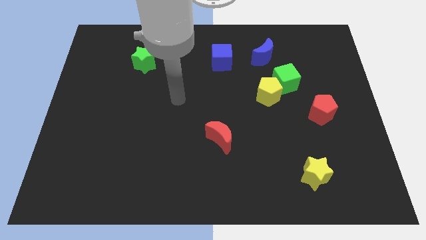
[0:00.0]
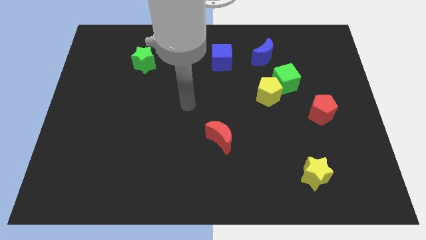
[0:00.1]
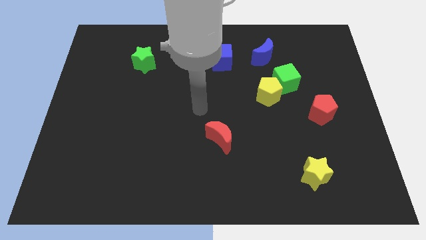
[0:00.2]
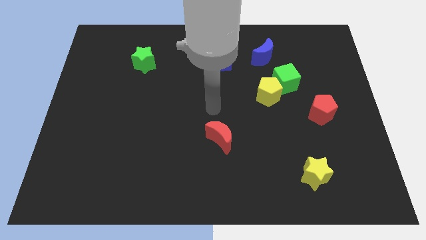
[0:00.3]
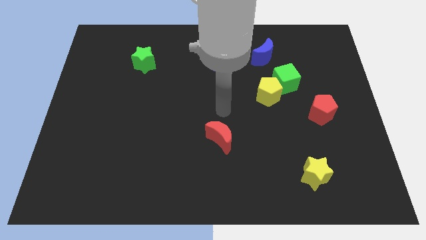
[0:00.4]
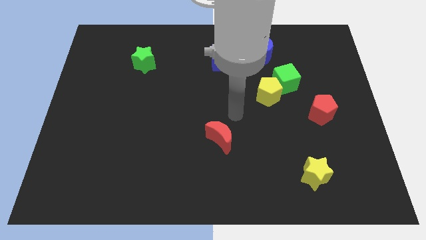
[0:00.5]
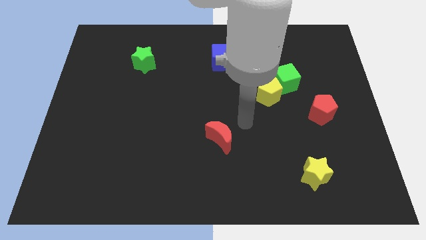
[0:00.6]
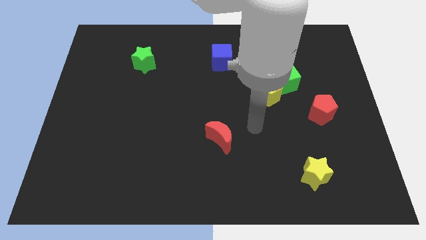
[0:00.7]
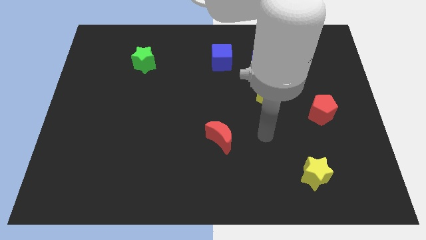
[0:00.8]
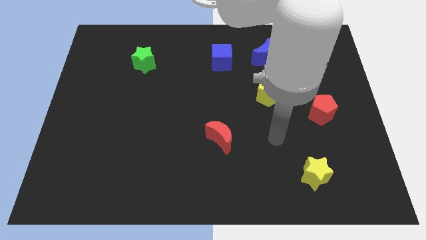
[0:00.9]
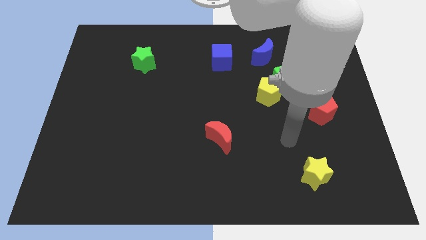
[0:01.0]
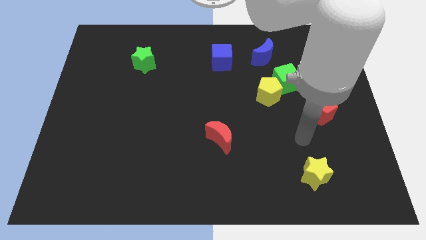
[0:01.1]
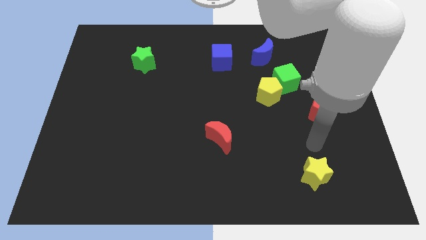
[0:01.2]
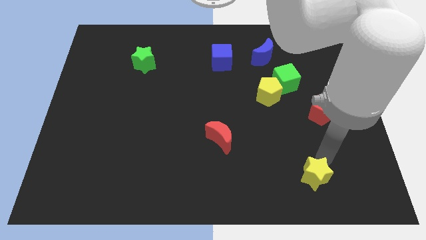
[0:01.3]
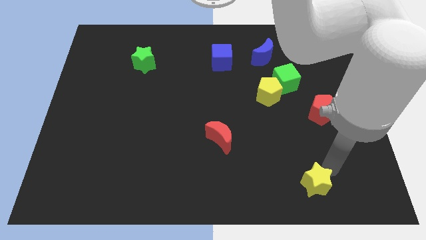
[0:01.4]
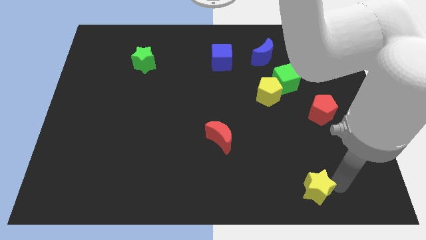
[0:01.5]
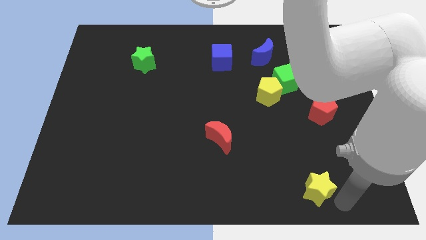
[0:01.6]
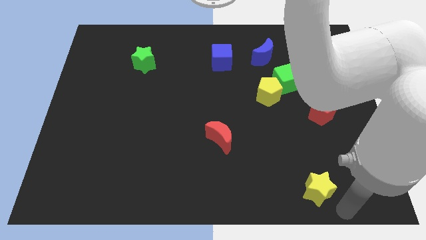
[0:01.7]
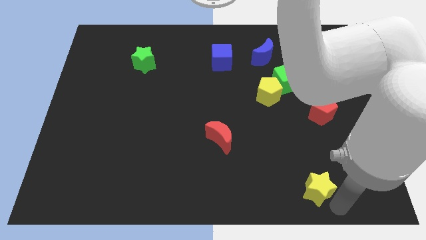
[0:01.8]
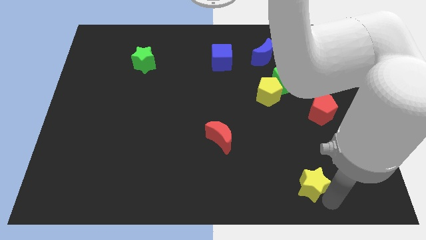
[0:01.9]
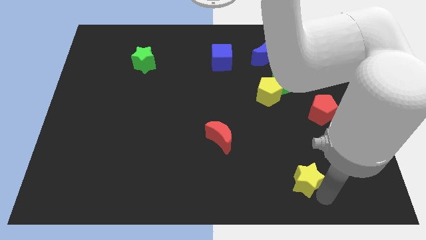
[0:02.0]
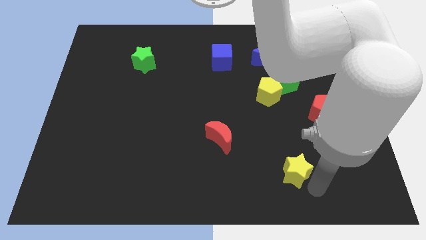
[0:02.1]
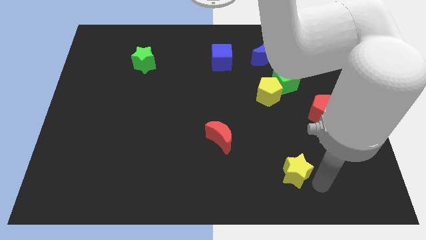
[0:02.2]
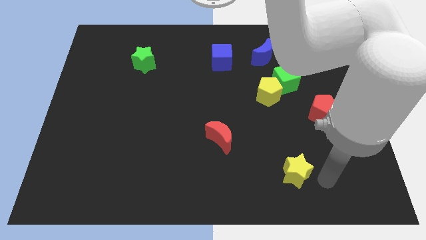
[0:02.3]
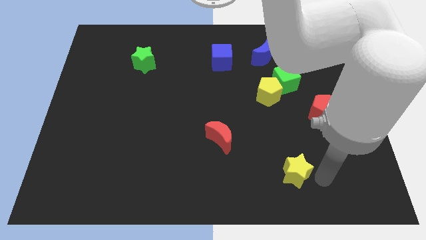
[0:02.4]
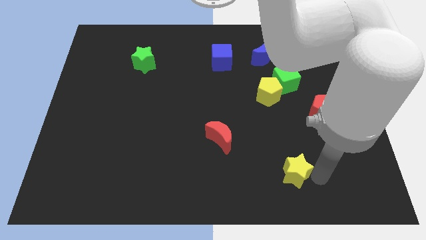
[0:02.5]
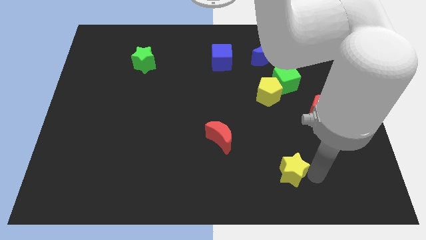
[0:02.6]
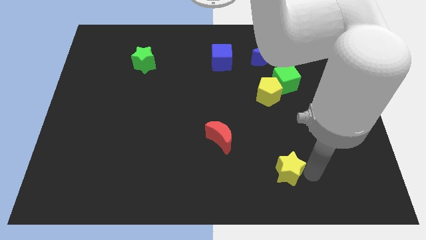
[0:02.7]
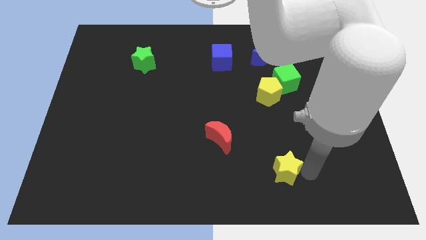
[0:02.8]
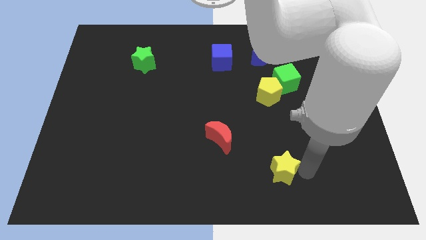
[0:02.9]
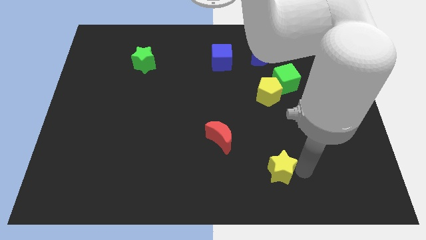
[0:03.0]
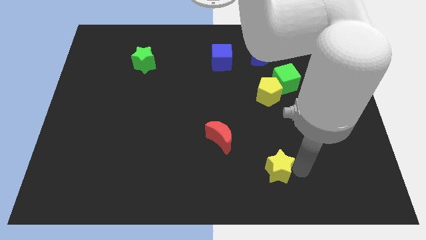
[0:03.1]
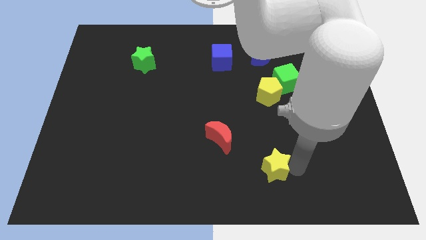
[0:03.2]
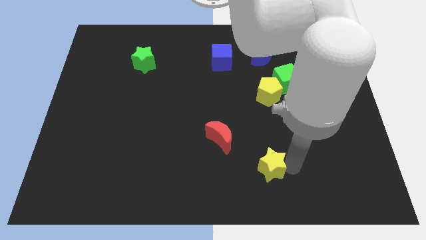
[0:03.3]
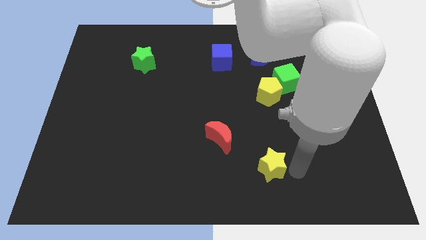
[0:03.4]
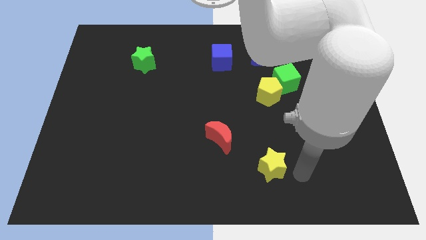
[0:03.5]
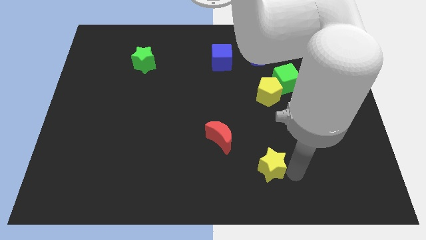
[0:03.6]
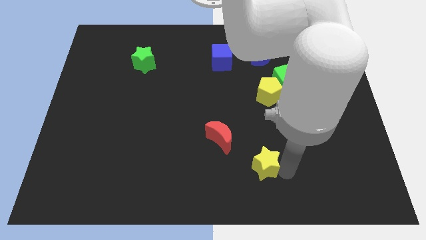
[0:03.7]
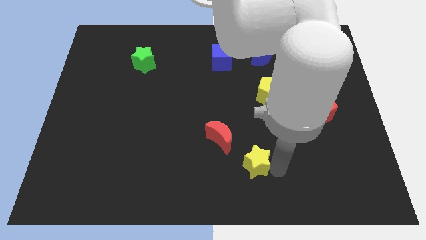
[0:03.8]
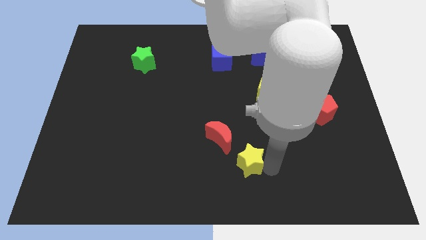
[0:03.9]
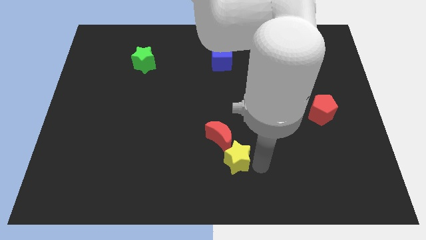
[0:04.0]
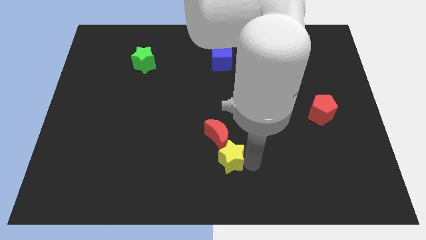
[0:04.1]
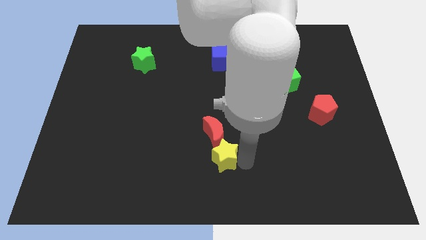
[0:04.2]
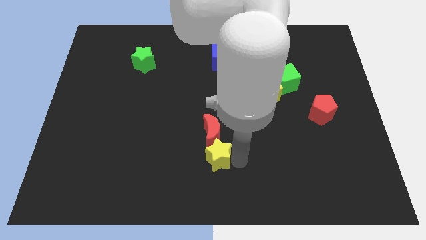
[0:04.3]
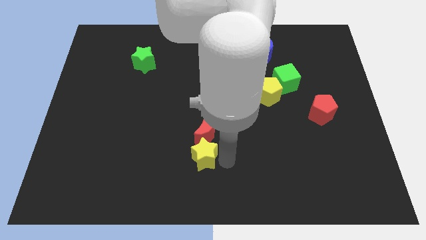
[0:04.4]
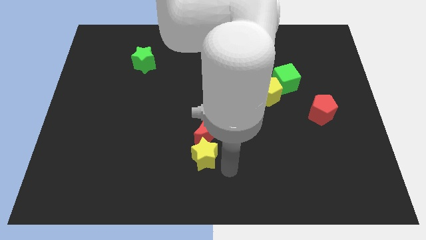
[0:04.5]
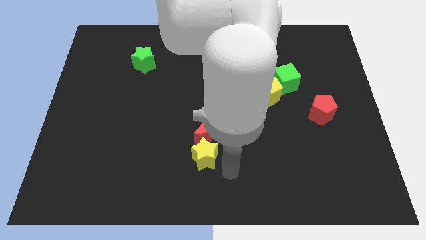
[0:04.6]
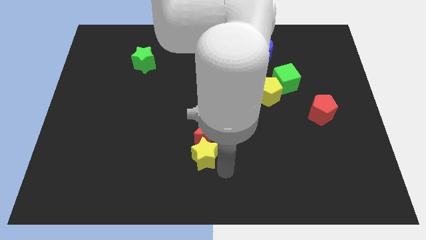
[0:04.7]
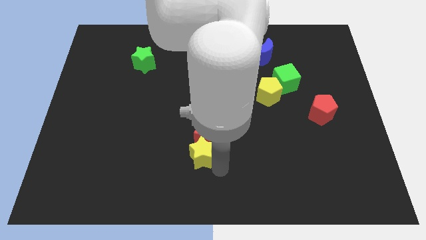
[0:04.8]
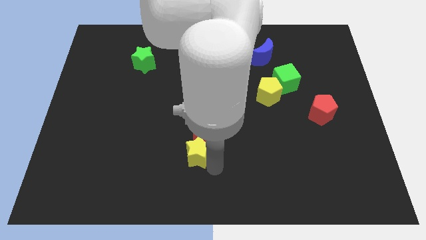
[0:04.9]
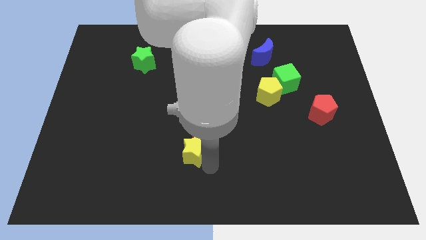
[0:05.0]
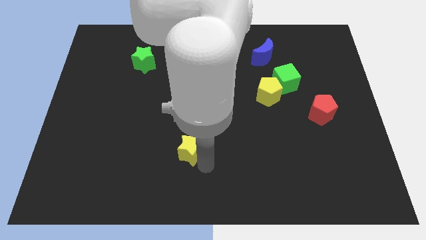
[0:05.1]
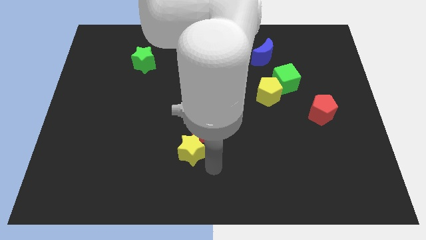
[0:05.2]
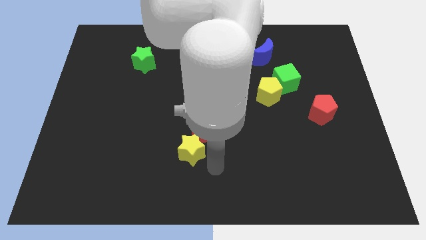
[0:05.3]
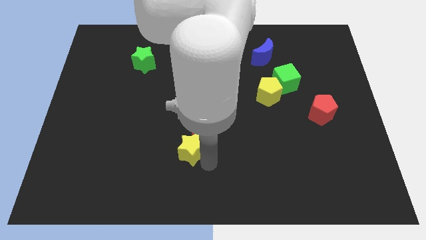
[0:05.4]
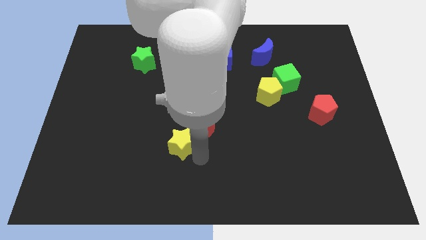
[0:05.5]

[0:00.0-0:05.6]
move the yellow star to the left of the red moon

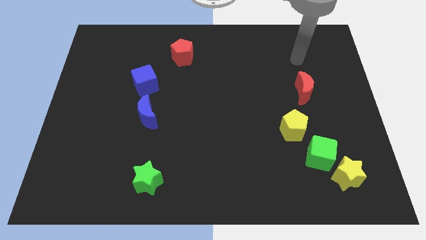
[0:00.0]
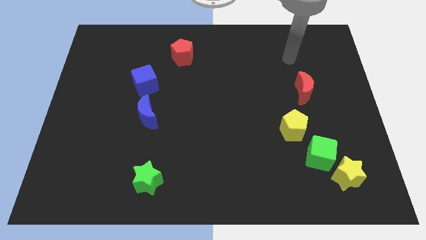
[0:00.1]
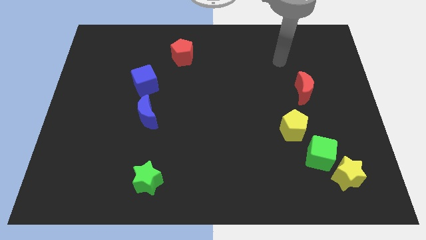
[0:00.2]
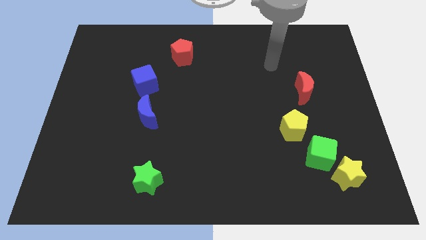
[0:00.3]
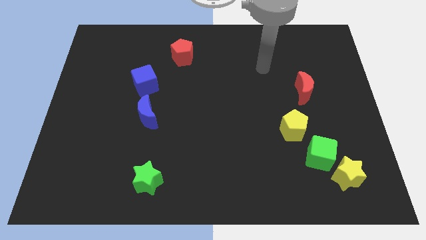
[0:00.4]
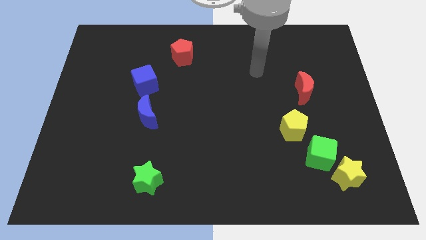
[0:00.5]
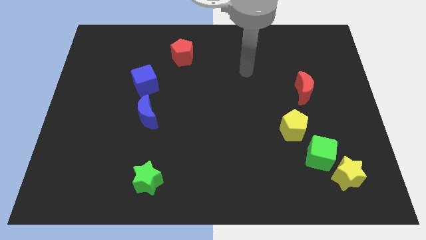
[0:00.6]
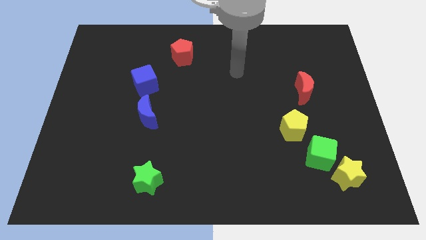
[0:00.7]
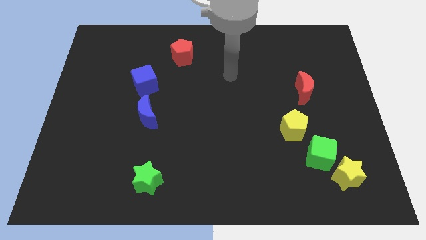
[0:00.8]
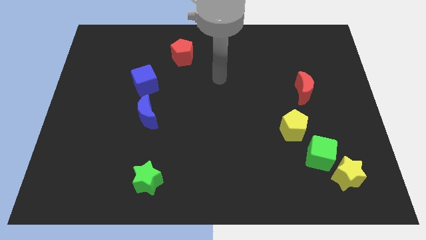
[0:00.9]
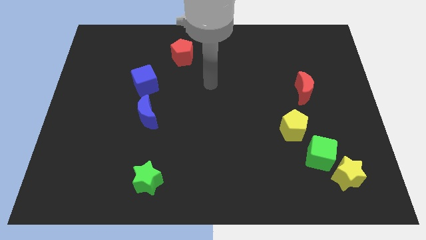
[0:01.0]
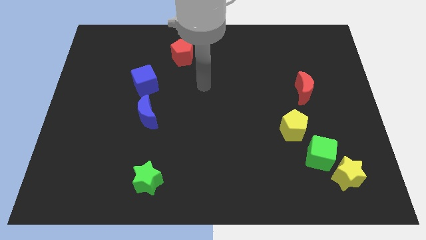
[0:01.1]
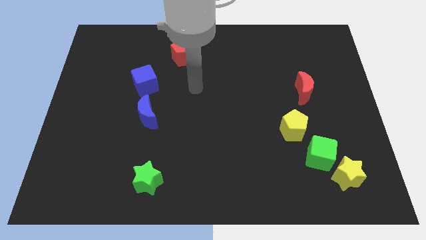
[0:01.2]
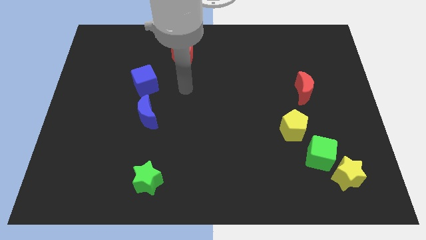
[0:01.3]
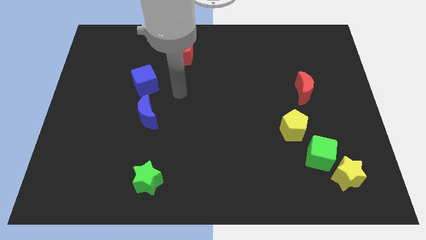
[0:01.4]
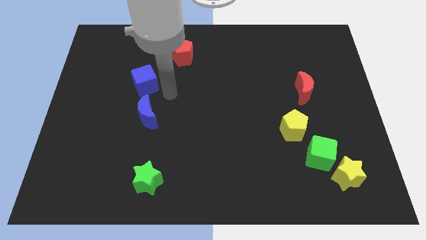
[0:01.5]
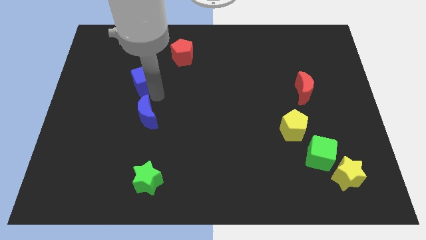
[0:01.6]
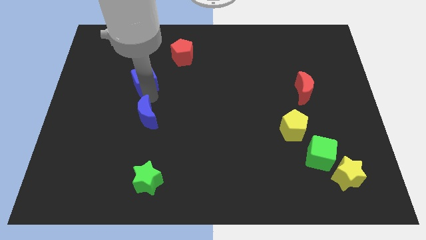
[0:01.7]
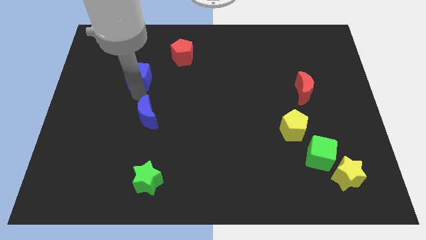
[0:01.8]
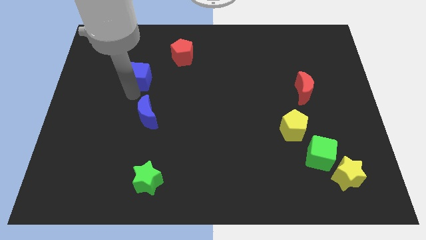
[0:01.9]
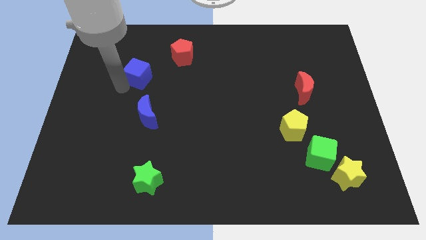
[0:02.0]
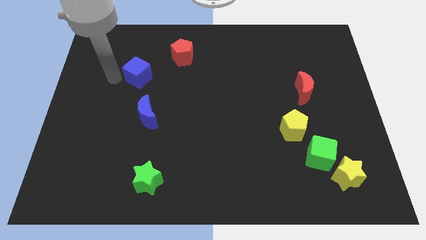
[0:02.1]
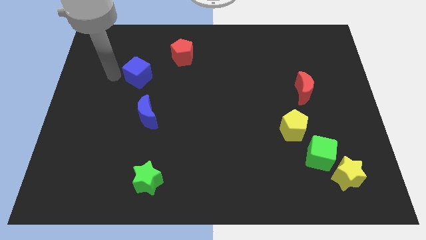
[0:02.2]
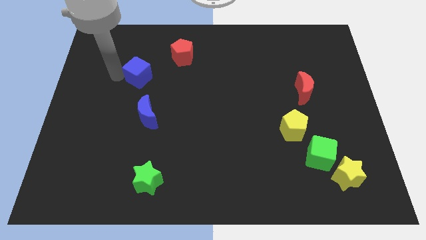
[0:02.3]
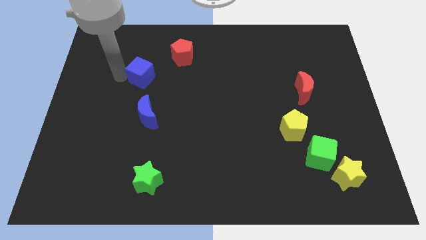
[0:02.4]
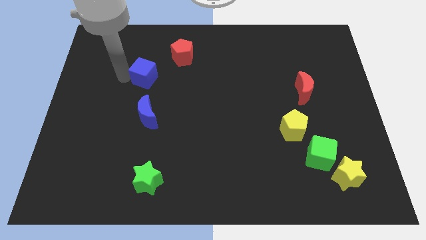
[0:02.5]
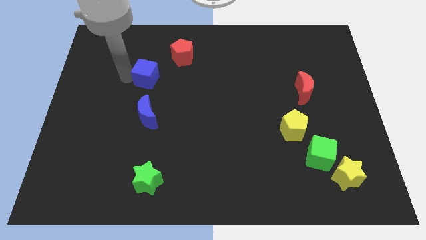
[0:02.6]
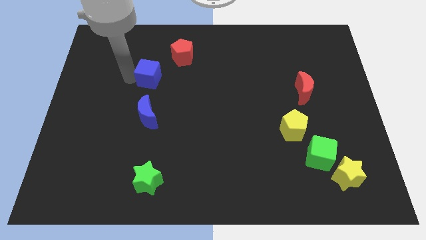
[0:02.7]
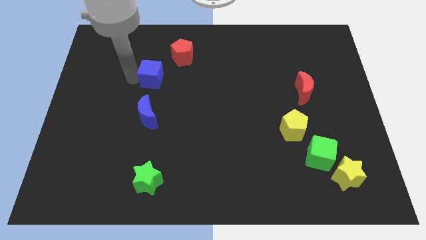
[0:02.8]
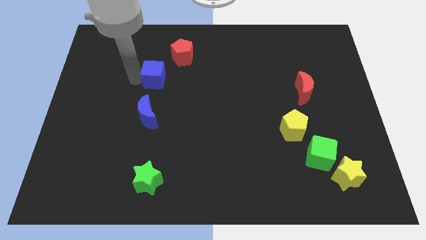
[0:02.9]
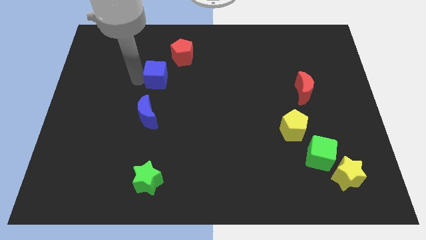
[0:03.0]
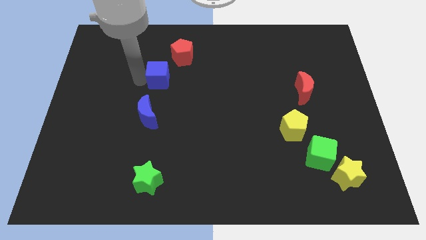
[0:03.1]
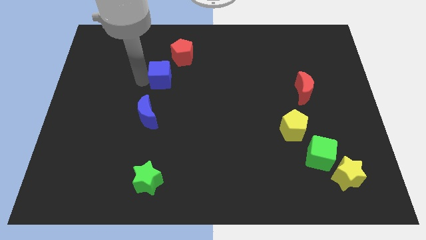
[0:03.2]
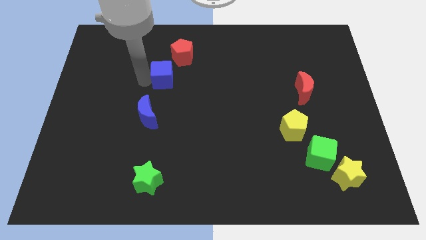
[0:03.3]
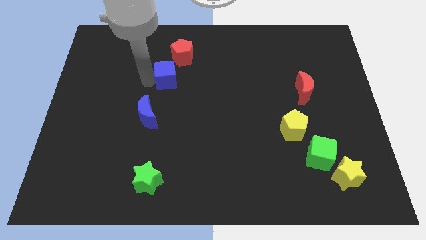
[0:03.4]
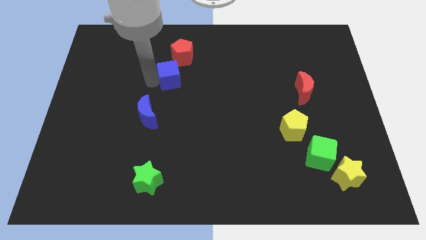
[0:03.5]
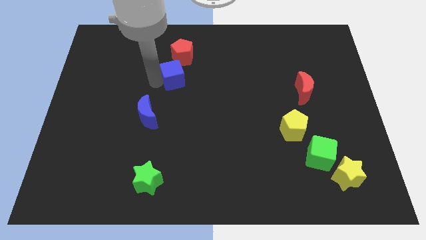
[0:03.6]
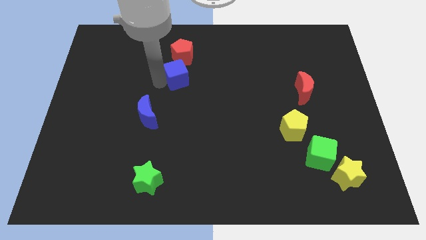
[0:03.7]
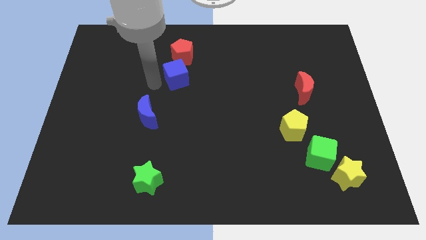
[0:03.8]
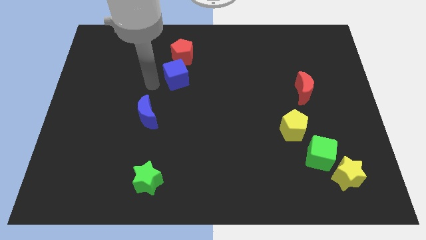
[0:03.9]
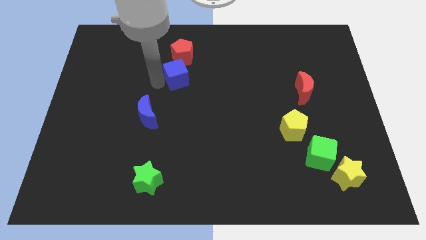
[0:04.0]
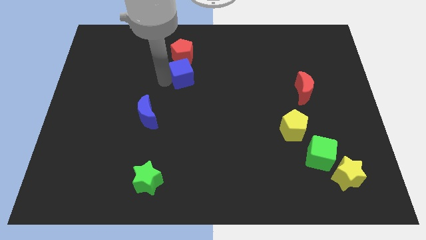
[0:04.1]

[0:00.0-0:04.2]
slide the blue cube to the bottom right side of the red pentagon
